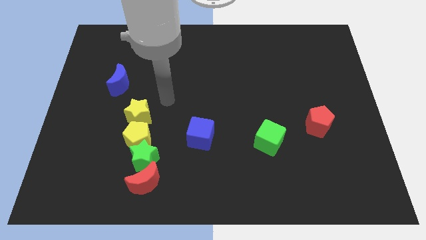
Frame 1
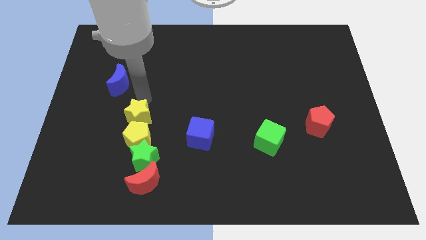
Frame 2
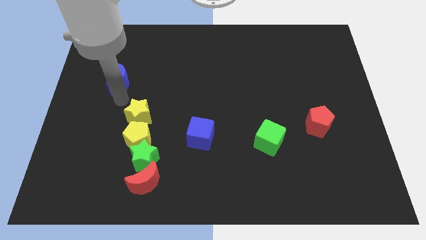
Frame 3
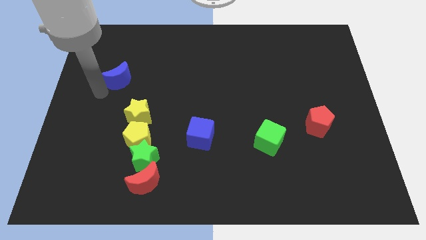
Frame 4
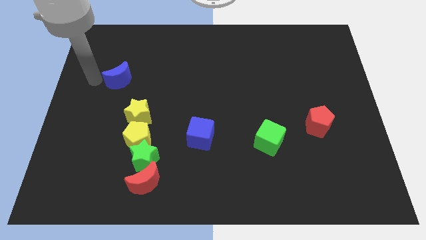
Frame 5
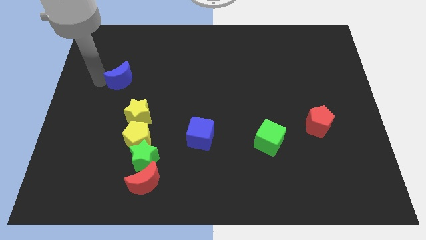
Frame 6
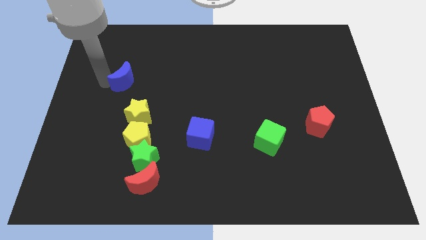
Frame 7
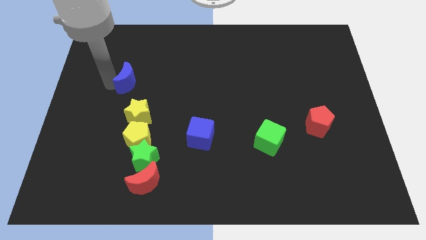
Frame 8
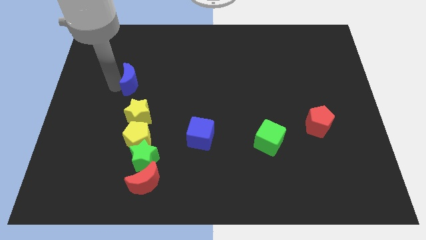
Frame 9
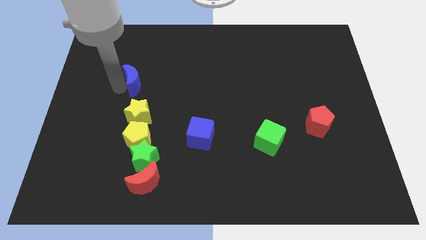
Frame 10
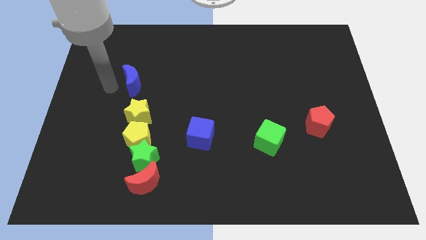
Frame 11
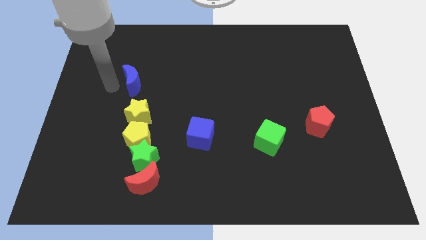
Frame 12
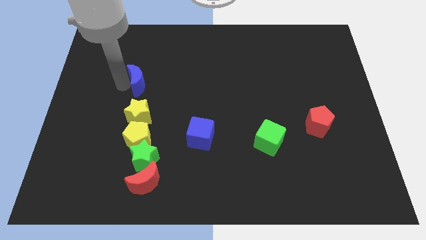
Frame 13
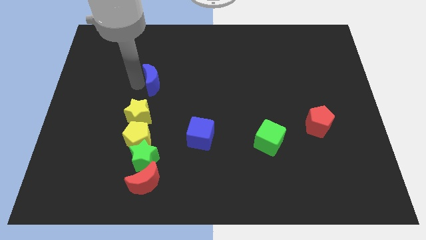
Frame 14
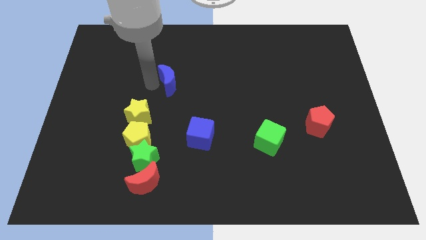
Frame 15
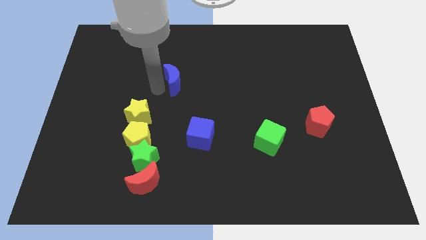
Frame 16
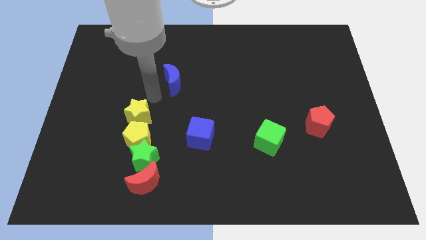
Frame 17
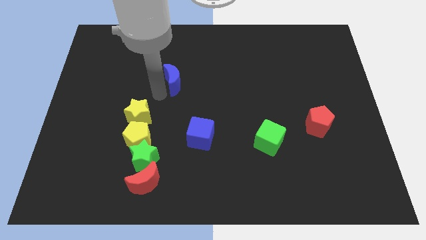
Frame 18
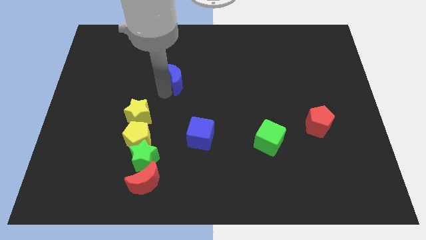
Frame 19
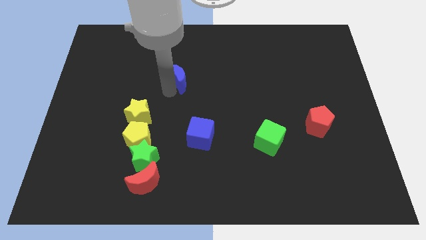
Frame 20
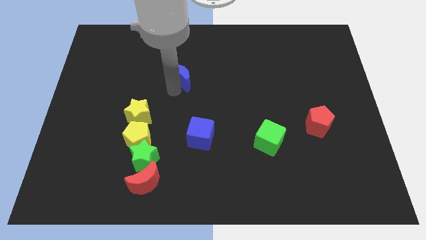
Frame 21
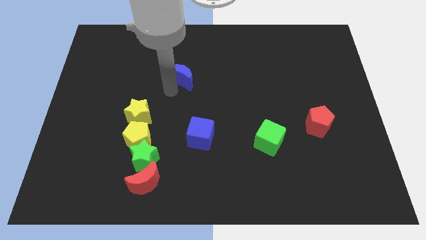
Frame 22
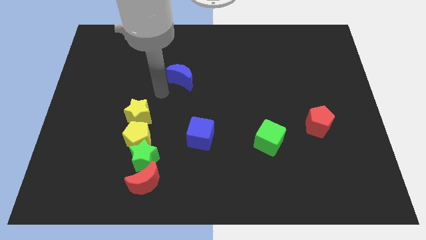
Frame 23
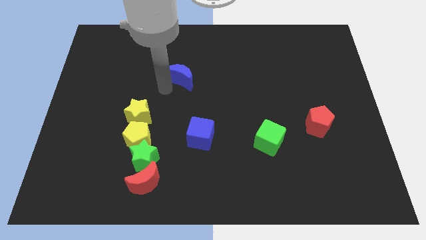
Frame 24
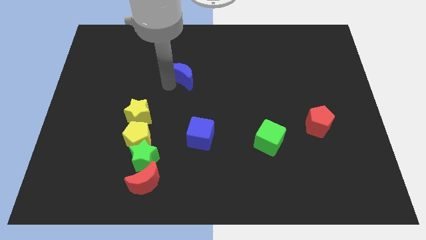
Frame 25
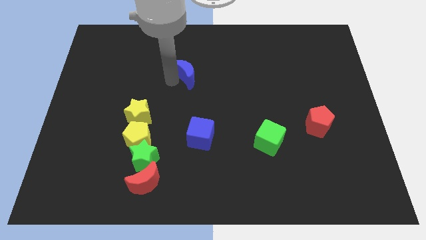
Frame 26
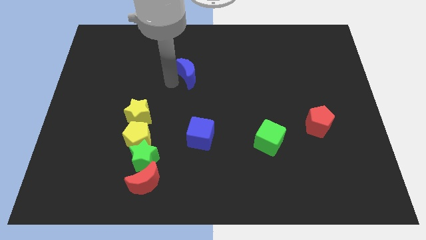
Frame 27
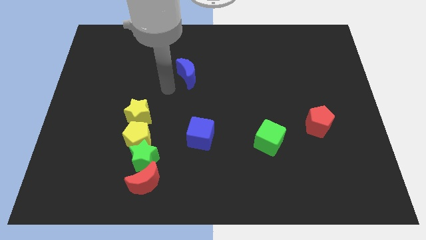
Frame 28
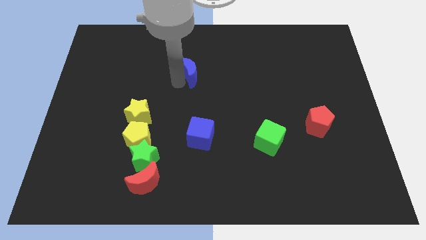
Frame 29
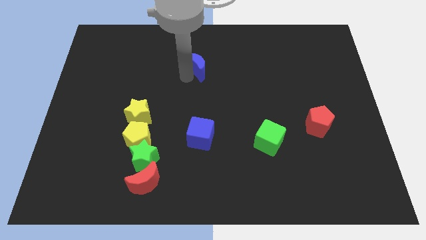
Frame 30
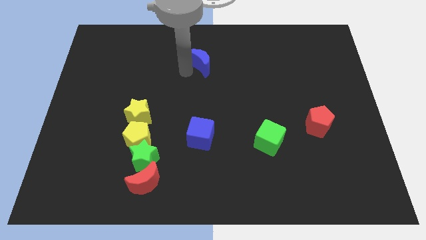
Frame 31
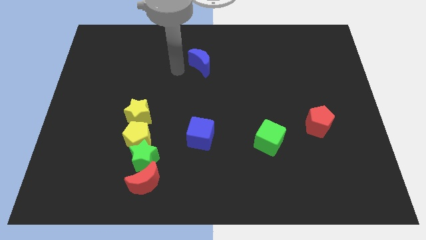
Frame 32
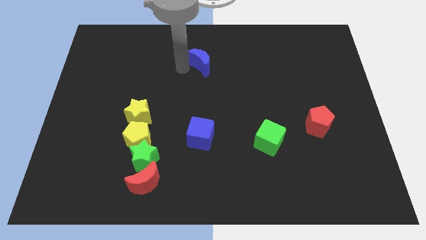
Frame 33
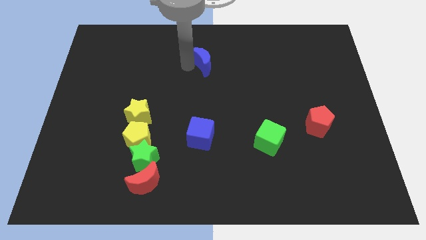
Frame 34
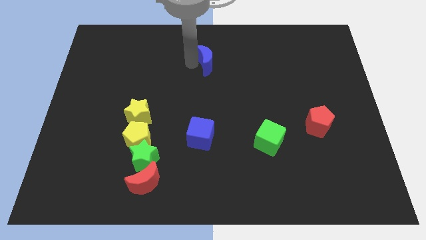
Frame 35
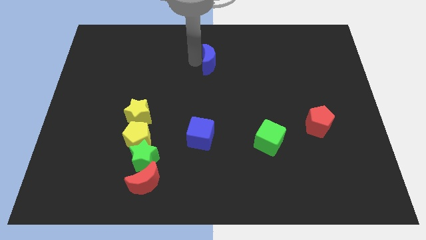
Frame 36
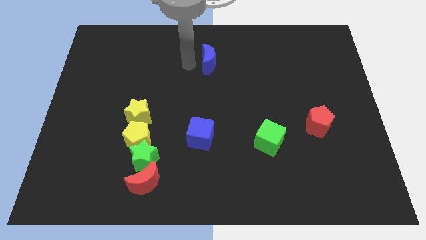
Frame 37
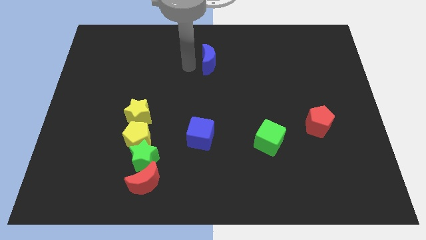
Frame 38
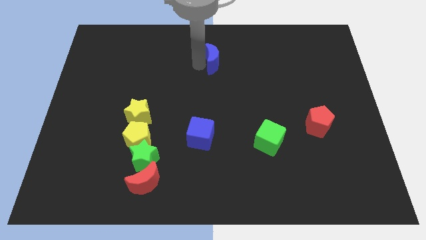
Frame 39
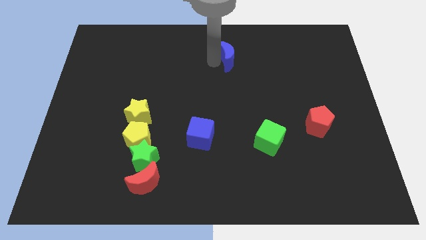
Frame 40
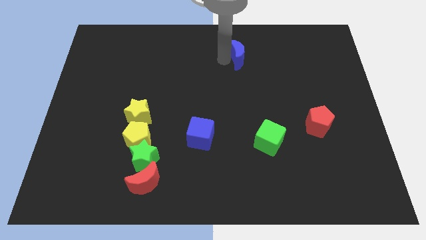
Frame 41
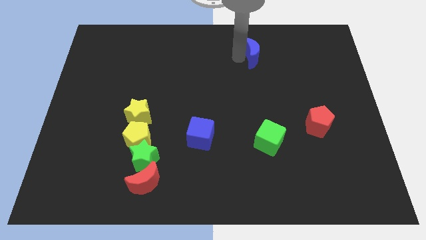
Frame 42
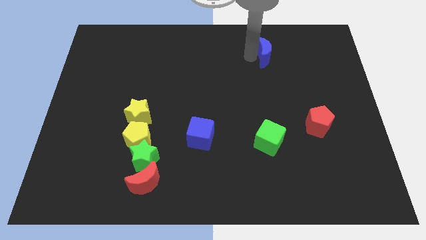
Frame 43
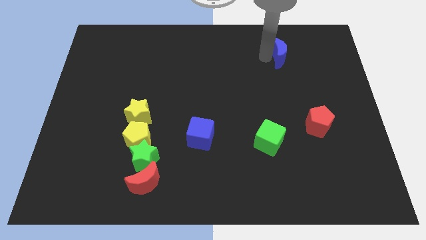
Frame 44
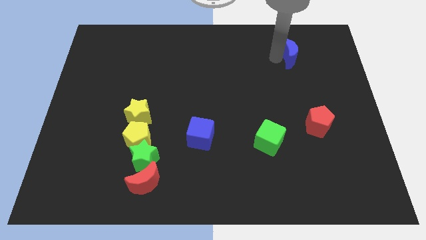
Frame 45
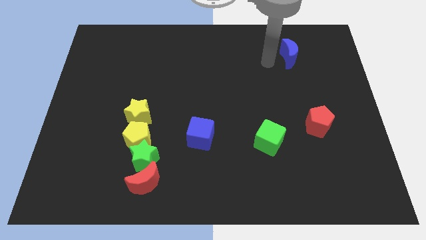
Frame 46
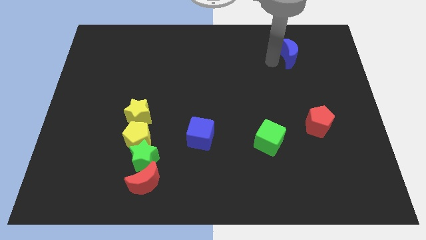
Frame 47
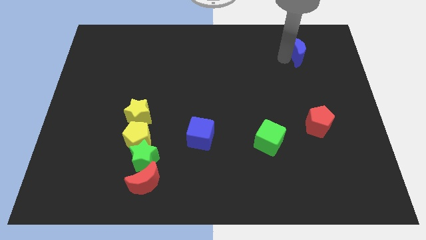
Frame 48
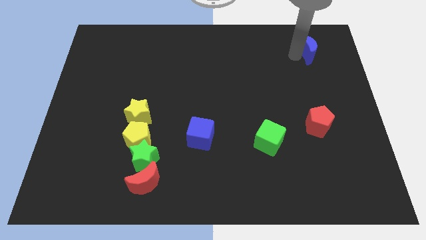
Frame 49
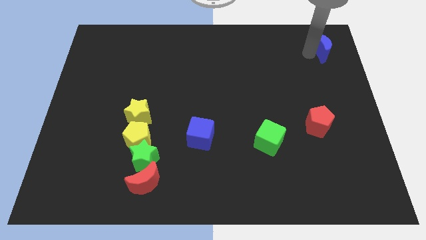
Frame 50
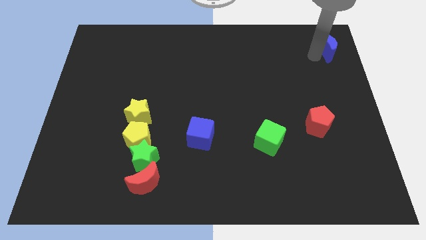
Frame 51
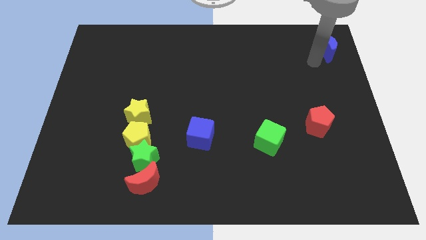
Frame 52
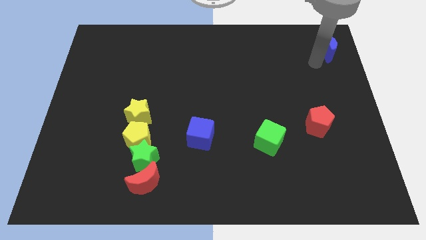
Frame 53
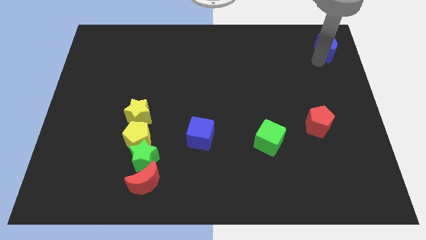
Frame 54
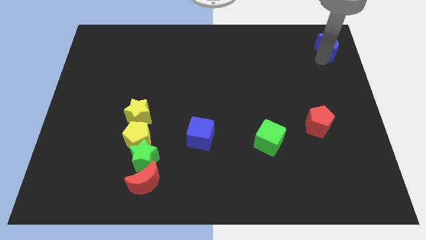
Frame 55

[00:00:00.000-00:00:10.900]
push the blue moon to the top right corner
